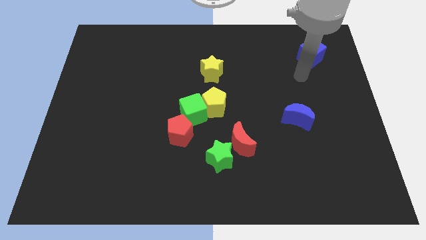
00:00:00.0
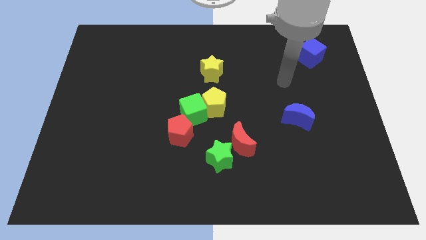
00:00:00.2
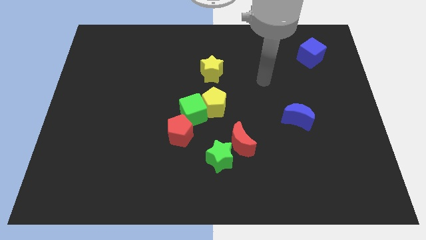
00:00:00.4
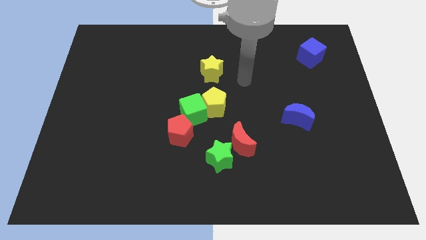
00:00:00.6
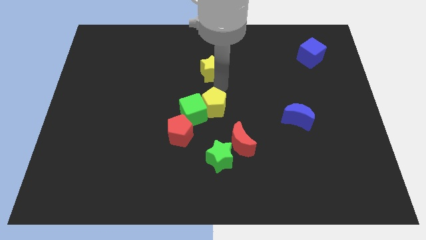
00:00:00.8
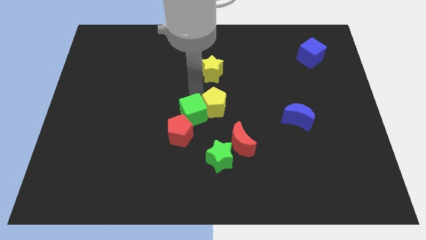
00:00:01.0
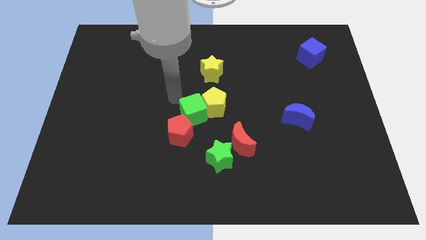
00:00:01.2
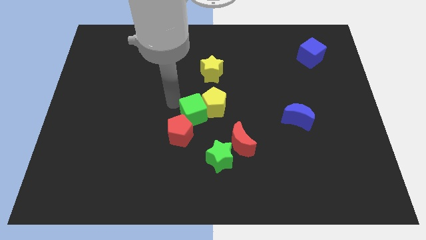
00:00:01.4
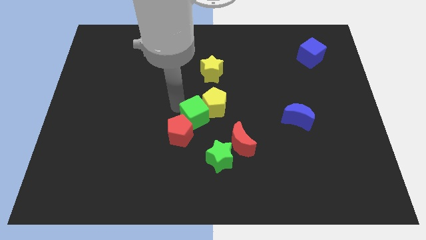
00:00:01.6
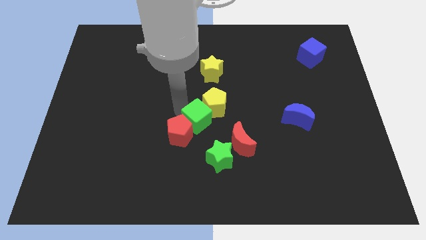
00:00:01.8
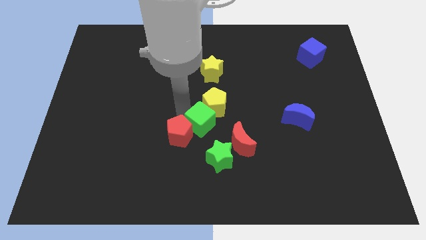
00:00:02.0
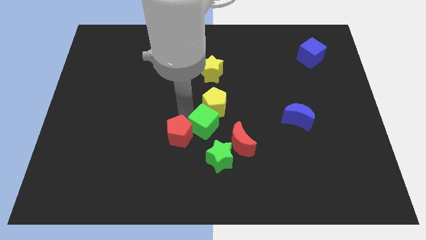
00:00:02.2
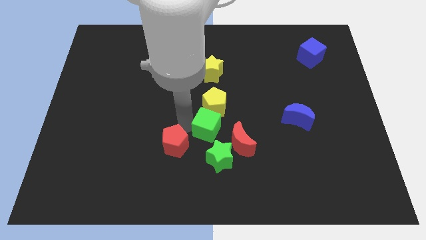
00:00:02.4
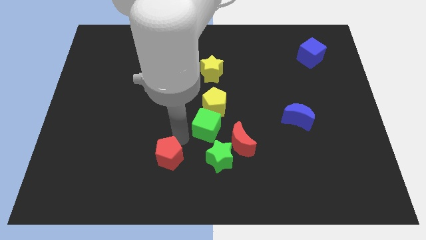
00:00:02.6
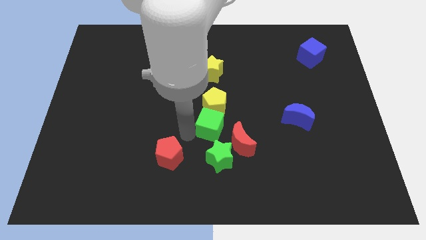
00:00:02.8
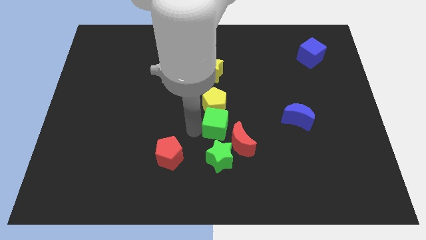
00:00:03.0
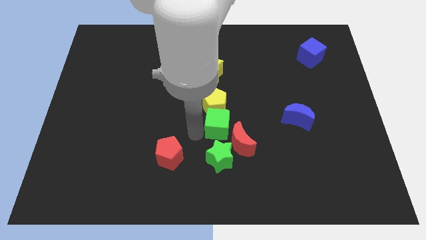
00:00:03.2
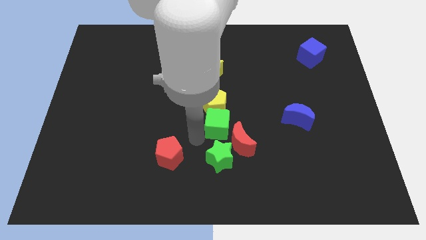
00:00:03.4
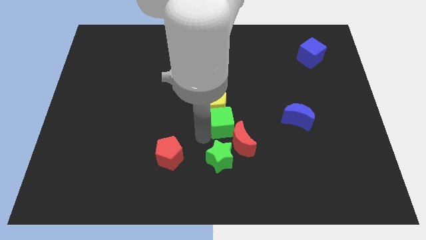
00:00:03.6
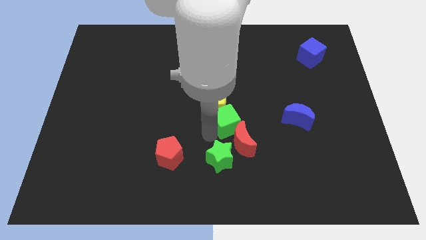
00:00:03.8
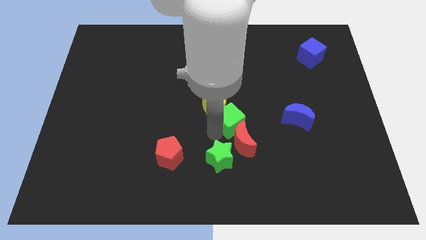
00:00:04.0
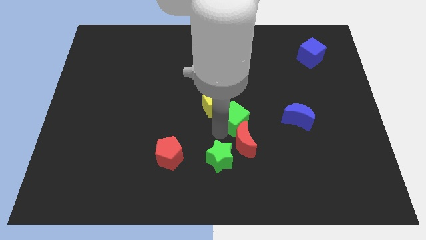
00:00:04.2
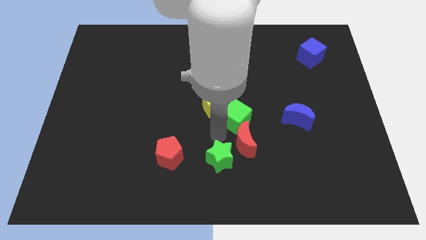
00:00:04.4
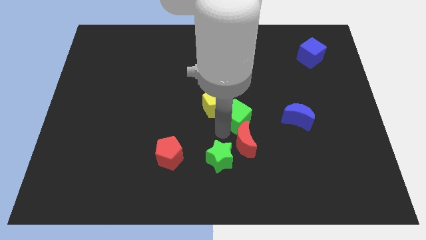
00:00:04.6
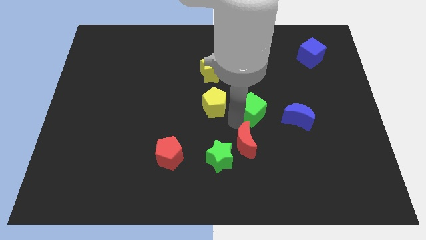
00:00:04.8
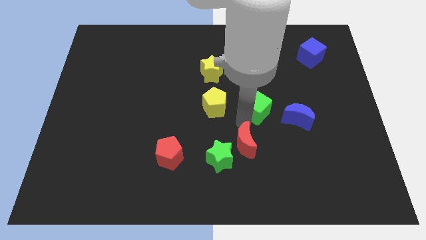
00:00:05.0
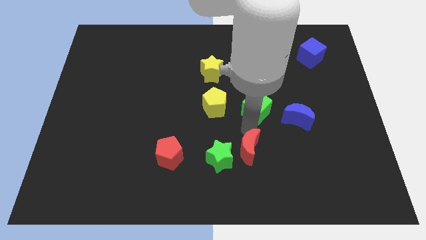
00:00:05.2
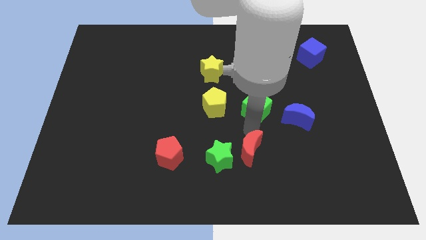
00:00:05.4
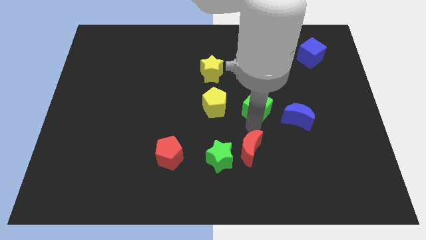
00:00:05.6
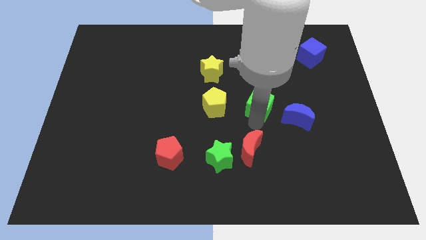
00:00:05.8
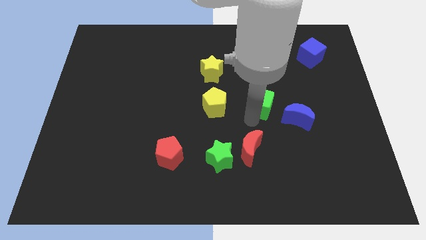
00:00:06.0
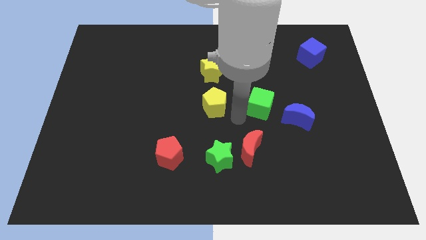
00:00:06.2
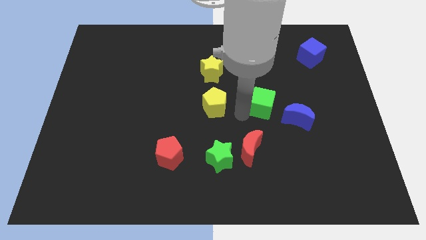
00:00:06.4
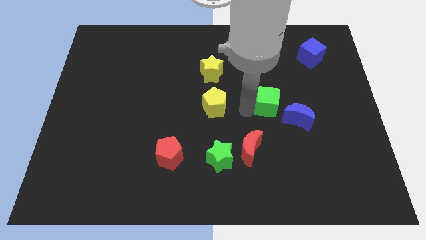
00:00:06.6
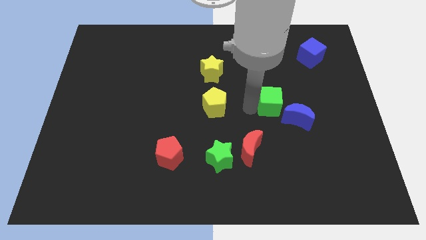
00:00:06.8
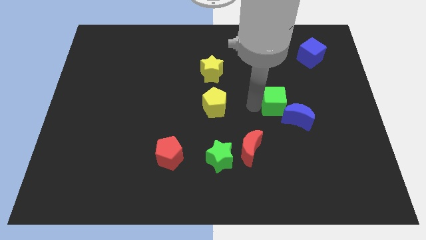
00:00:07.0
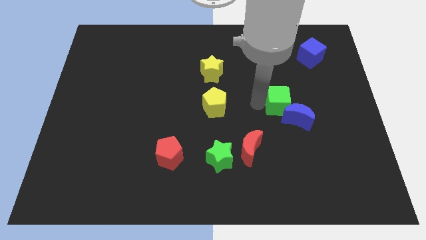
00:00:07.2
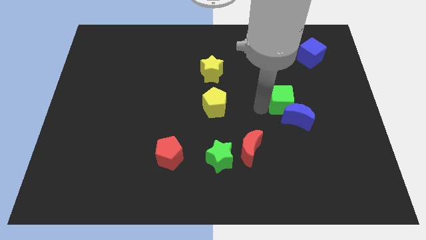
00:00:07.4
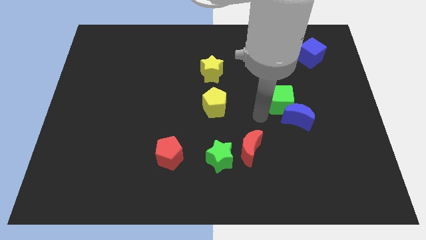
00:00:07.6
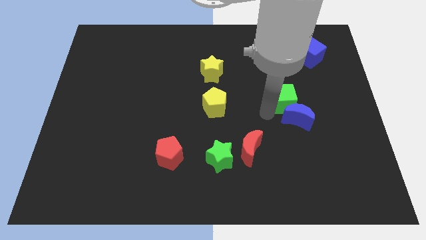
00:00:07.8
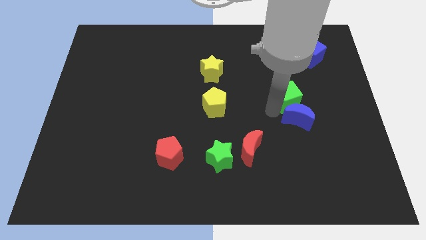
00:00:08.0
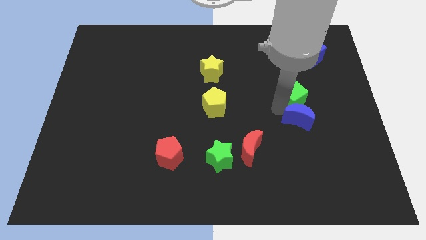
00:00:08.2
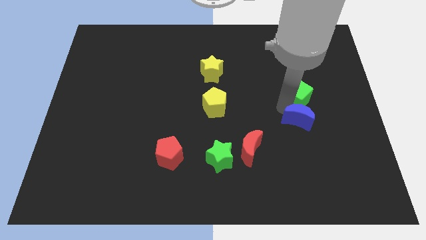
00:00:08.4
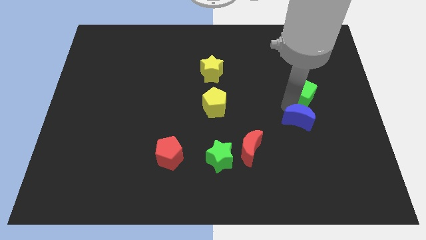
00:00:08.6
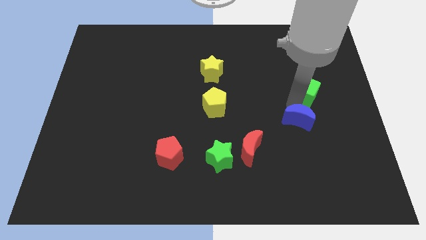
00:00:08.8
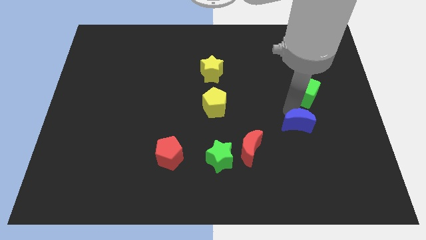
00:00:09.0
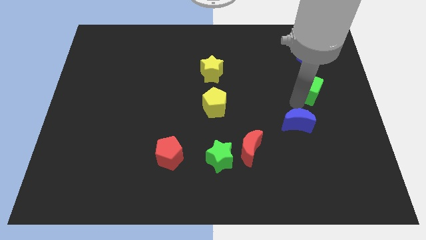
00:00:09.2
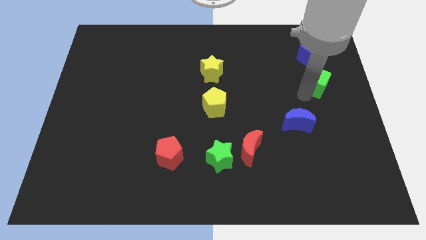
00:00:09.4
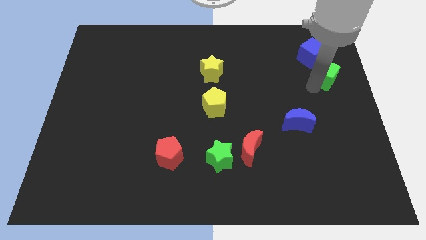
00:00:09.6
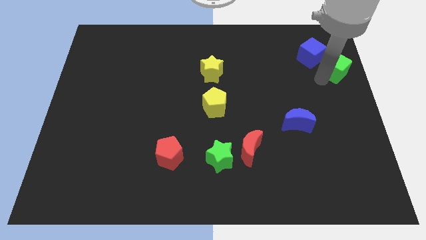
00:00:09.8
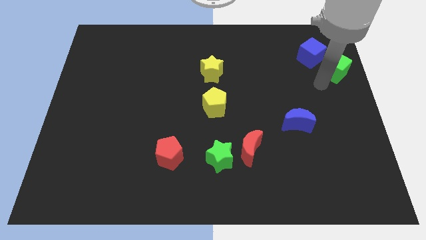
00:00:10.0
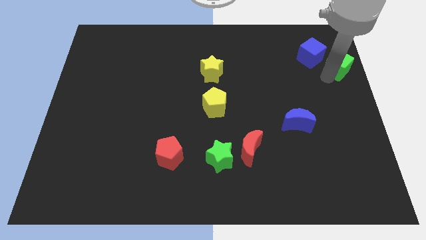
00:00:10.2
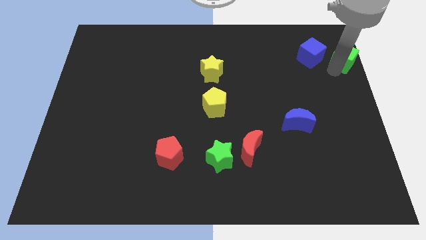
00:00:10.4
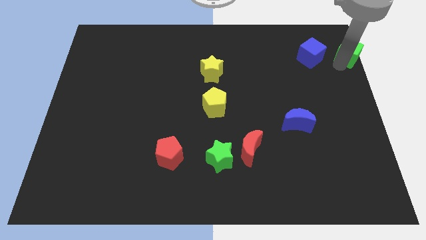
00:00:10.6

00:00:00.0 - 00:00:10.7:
move the green cube to the upper right corner
